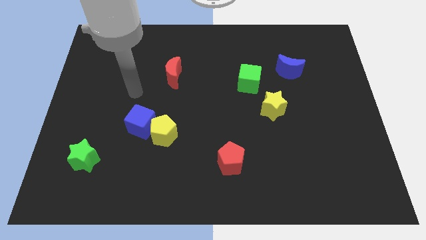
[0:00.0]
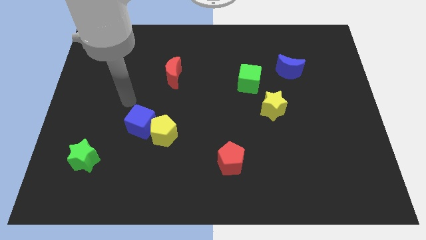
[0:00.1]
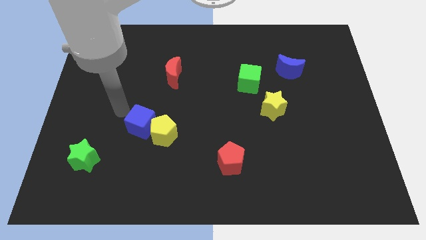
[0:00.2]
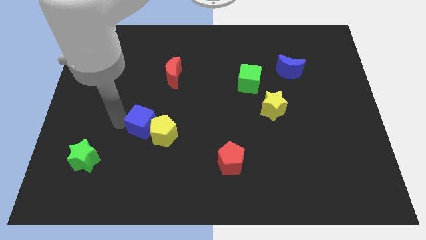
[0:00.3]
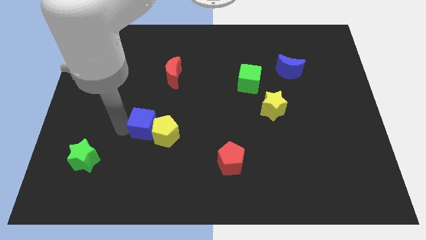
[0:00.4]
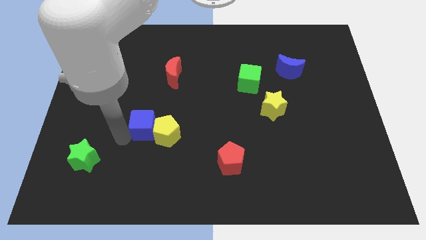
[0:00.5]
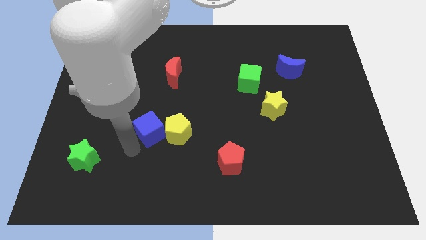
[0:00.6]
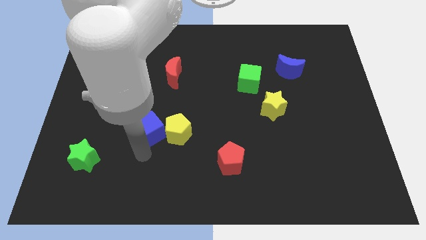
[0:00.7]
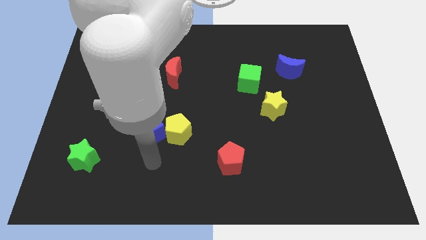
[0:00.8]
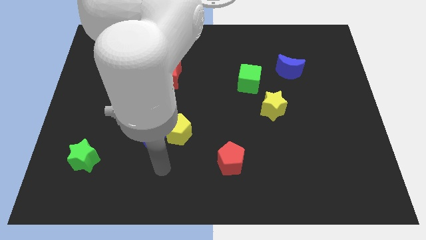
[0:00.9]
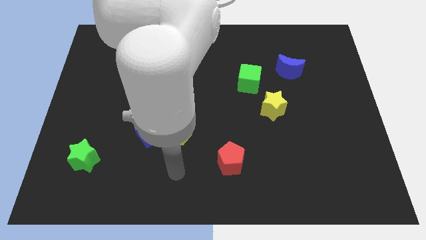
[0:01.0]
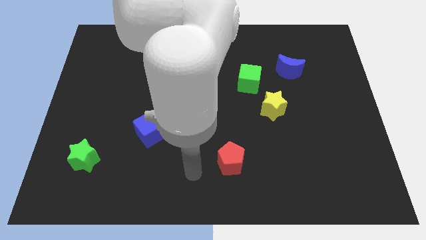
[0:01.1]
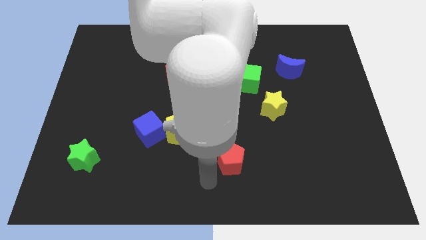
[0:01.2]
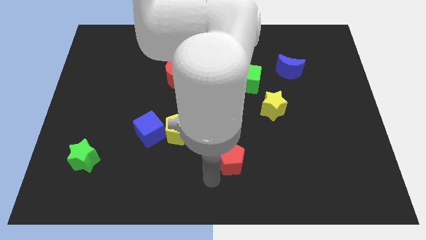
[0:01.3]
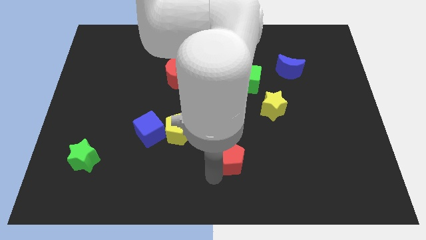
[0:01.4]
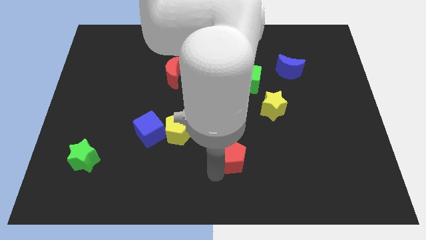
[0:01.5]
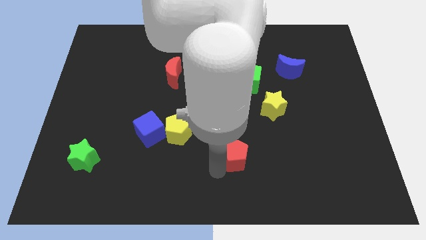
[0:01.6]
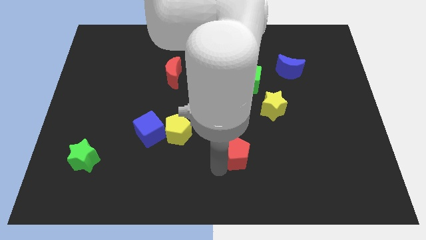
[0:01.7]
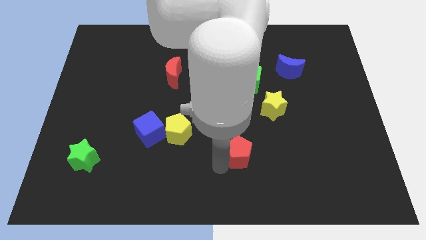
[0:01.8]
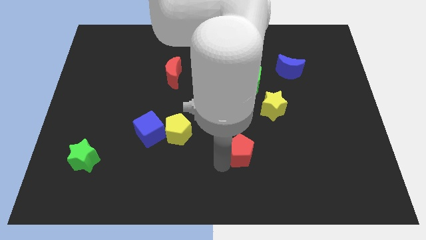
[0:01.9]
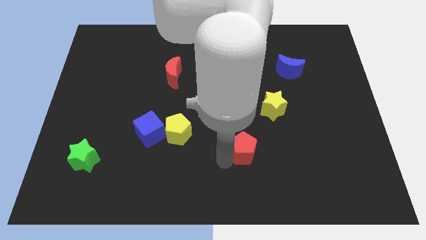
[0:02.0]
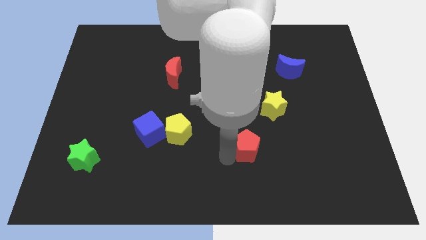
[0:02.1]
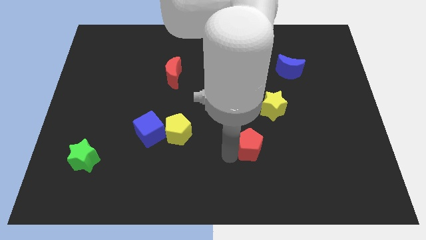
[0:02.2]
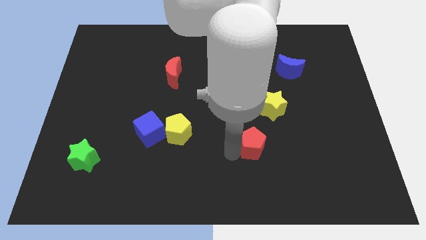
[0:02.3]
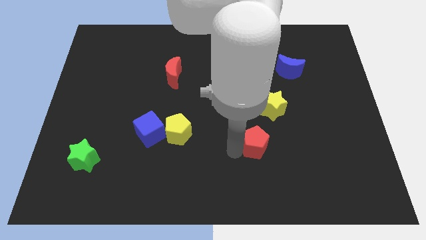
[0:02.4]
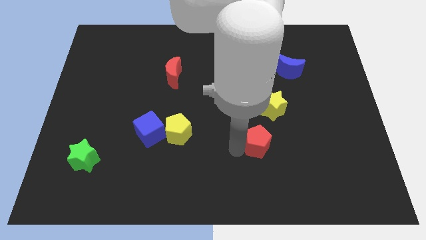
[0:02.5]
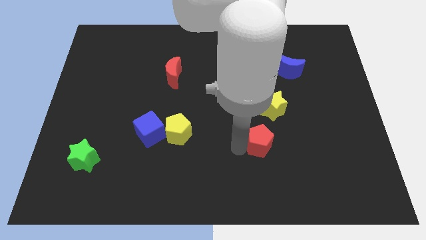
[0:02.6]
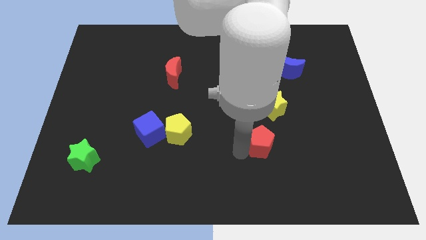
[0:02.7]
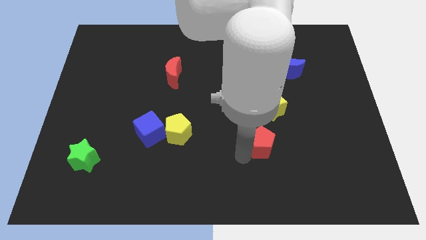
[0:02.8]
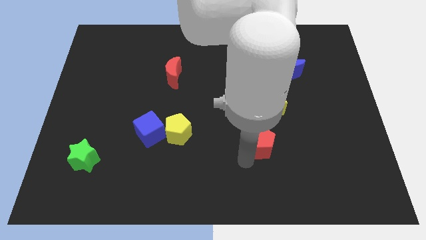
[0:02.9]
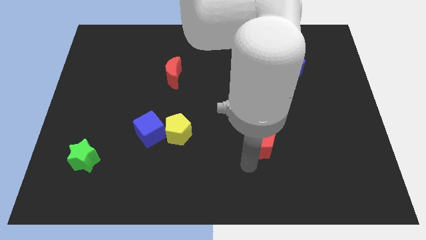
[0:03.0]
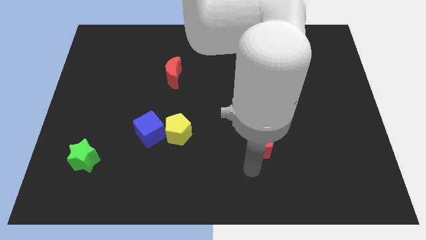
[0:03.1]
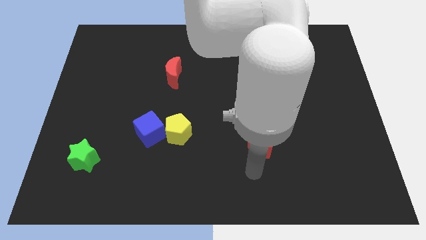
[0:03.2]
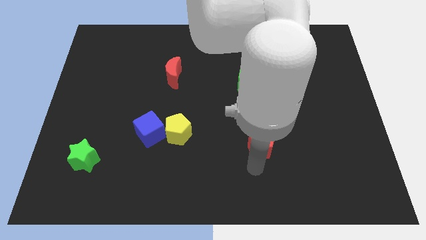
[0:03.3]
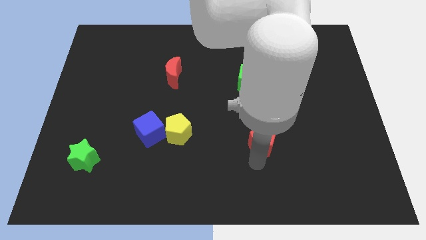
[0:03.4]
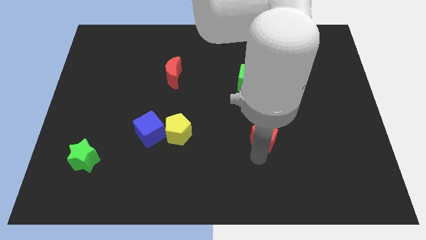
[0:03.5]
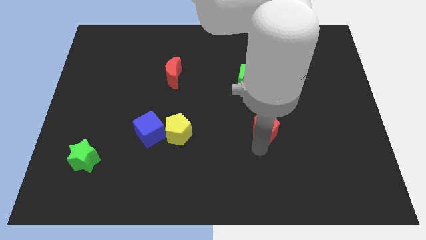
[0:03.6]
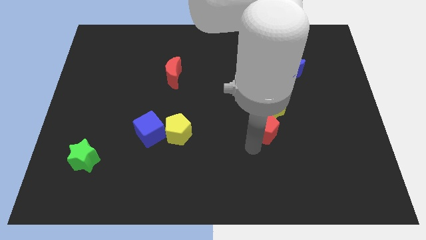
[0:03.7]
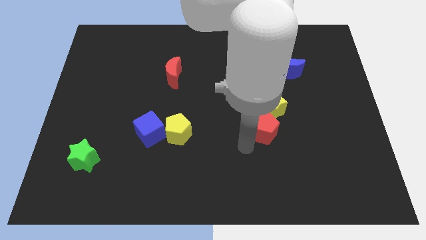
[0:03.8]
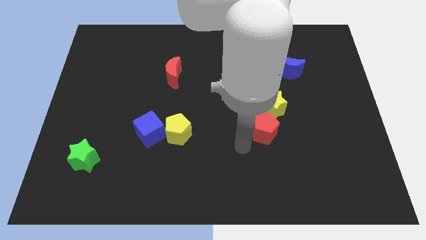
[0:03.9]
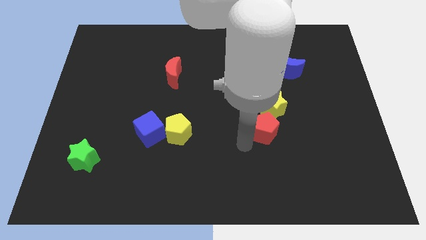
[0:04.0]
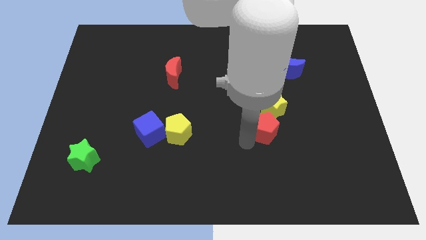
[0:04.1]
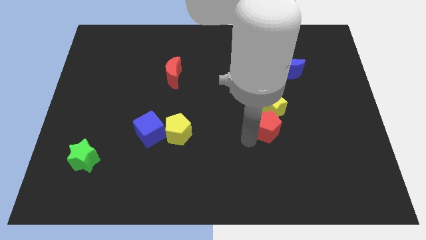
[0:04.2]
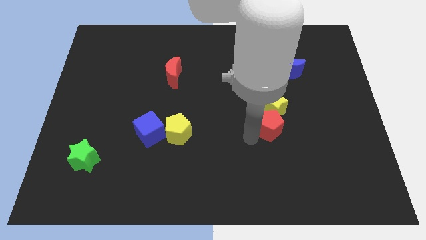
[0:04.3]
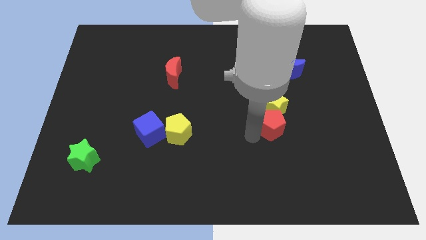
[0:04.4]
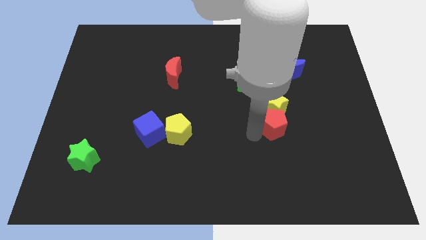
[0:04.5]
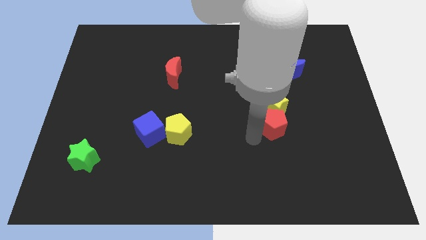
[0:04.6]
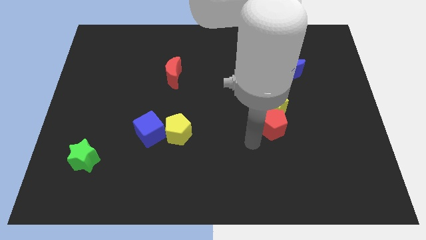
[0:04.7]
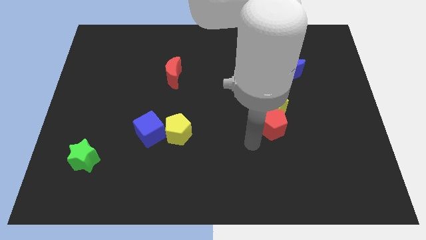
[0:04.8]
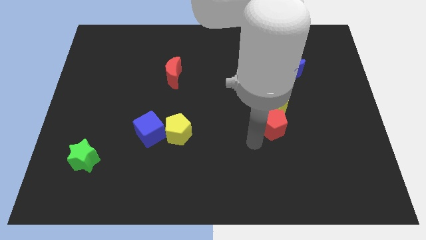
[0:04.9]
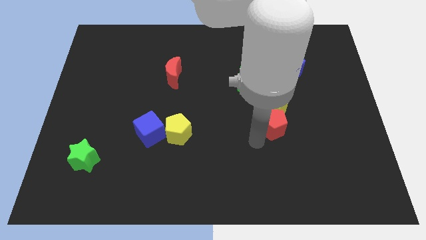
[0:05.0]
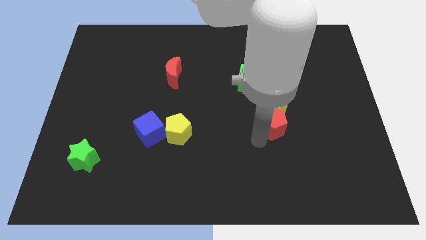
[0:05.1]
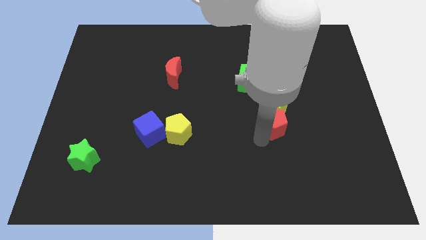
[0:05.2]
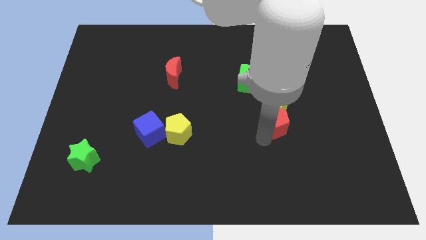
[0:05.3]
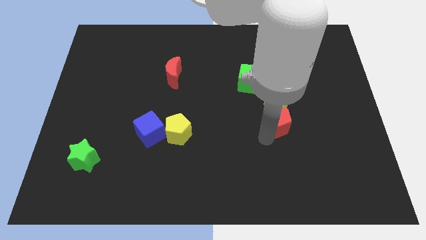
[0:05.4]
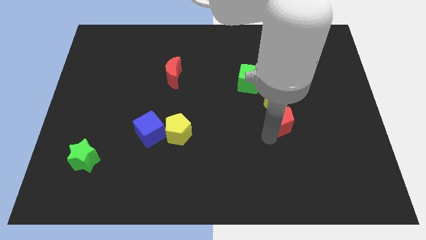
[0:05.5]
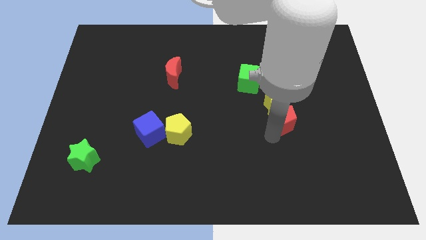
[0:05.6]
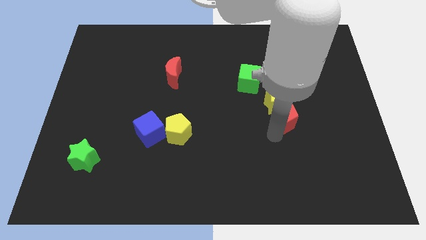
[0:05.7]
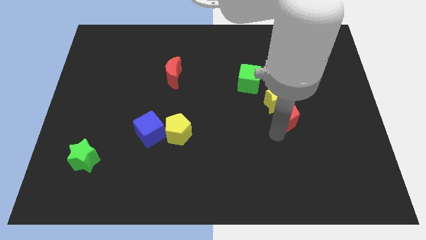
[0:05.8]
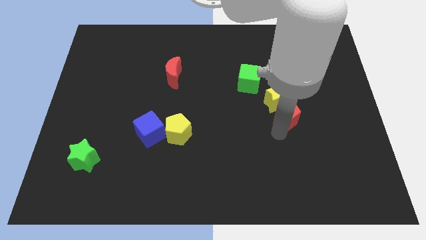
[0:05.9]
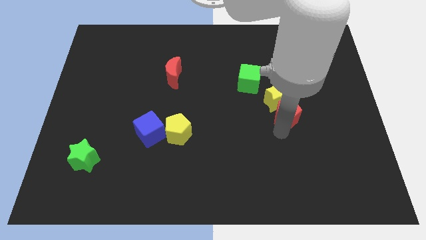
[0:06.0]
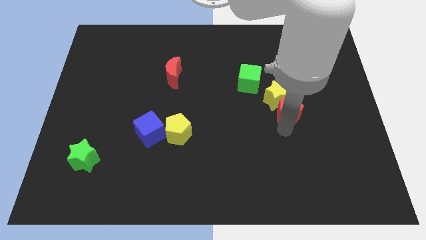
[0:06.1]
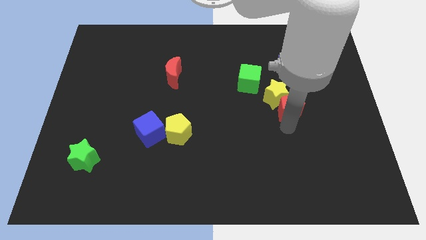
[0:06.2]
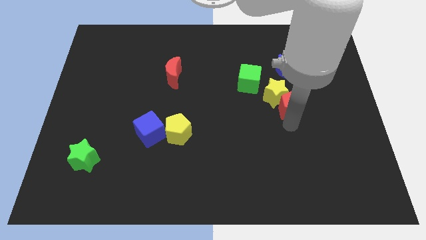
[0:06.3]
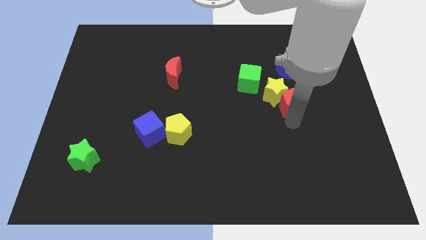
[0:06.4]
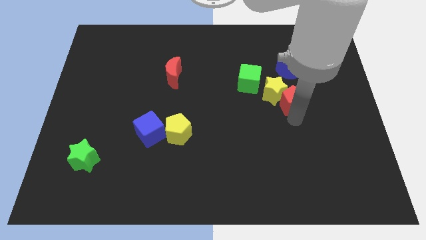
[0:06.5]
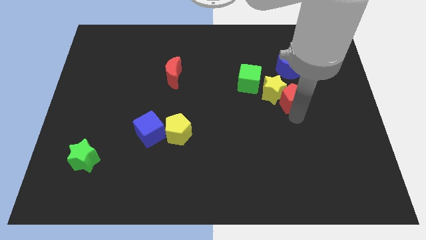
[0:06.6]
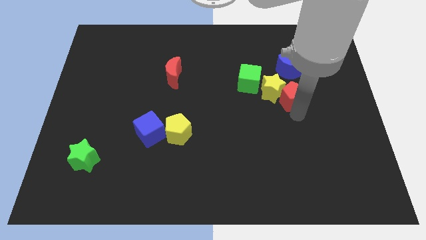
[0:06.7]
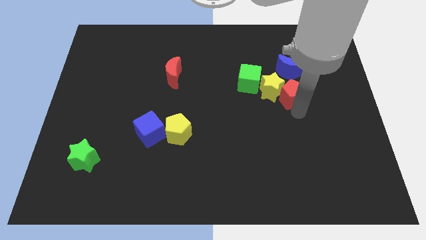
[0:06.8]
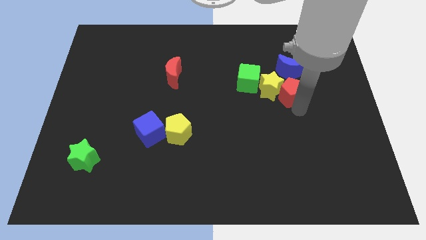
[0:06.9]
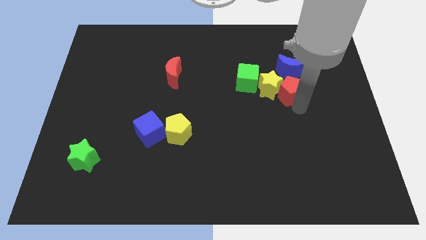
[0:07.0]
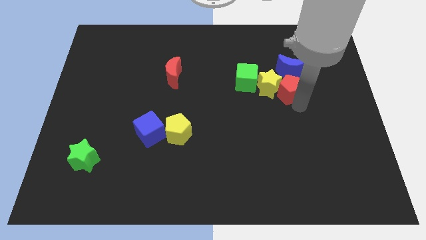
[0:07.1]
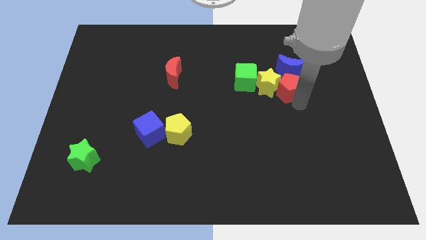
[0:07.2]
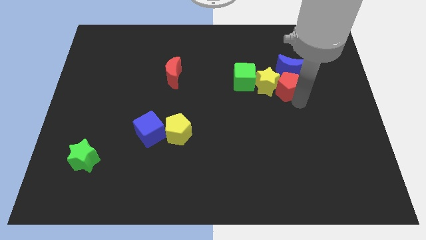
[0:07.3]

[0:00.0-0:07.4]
slide the red pentagon towards the blue moon
